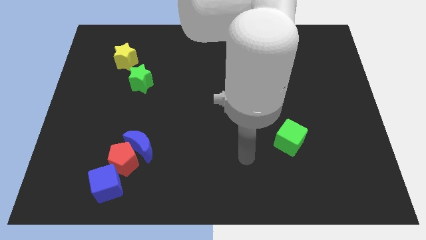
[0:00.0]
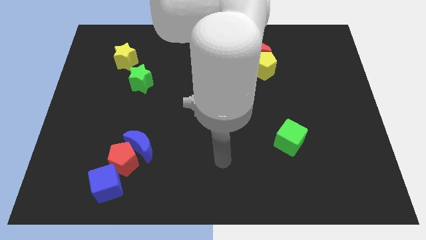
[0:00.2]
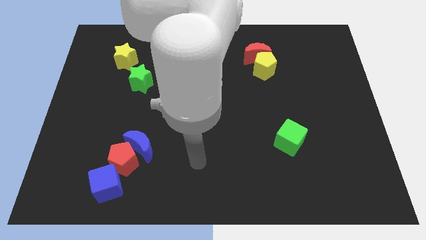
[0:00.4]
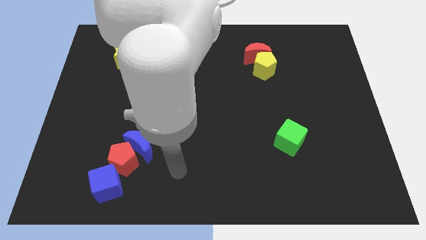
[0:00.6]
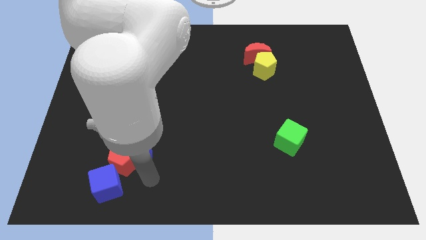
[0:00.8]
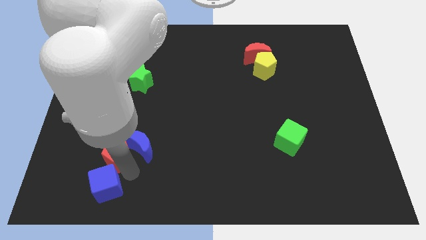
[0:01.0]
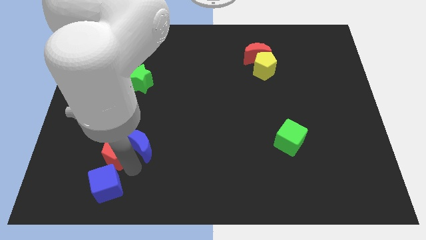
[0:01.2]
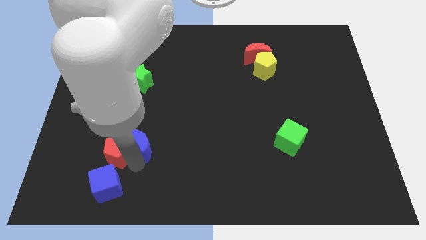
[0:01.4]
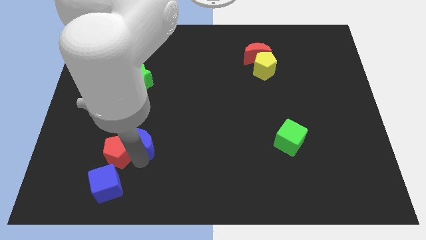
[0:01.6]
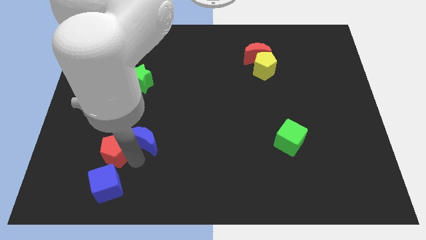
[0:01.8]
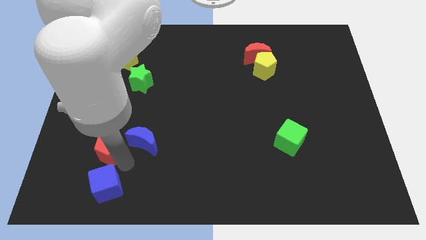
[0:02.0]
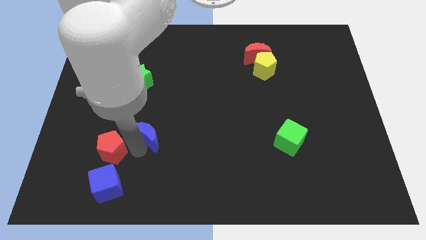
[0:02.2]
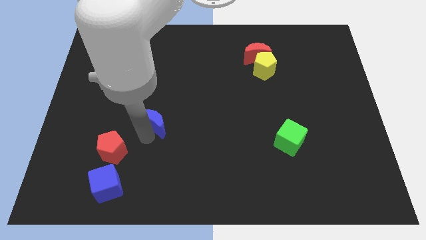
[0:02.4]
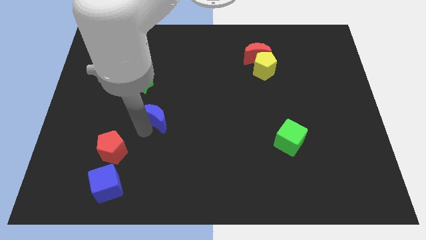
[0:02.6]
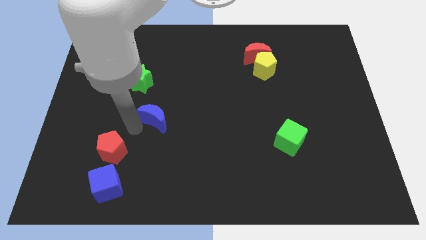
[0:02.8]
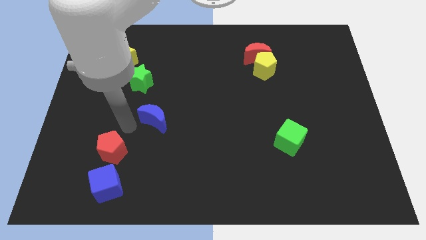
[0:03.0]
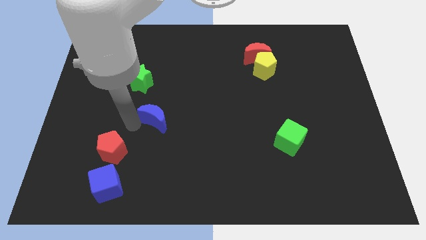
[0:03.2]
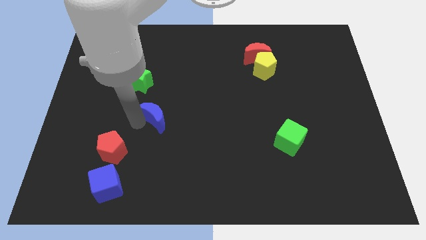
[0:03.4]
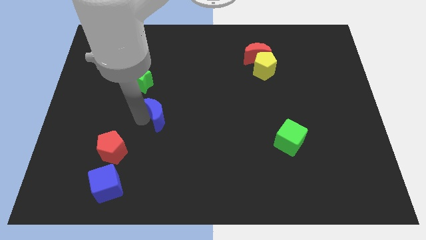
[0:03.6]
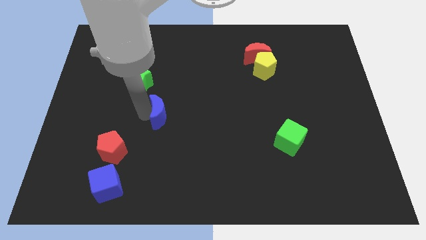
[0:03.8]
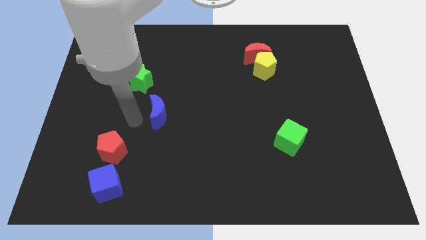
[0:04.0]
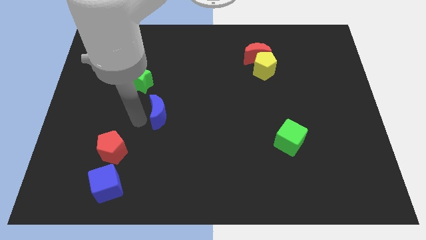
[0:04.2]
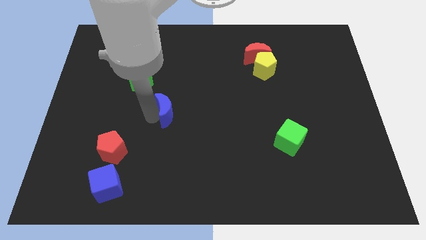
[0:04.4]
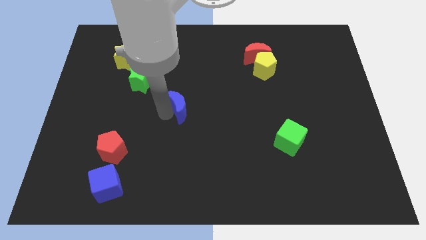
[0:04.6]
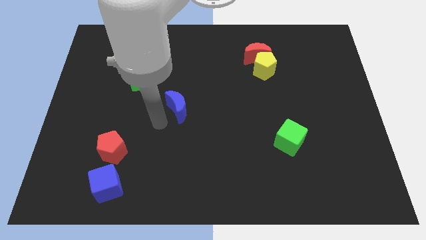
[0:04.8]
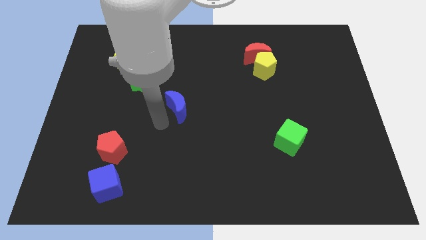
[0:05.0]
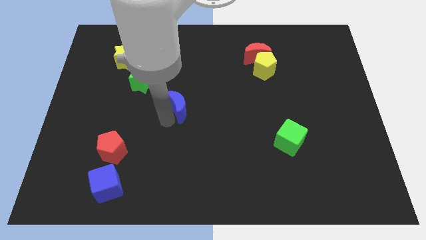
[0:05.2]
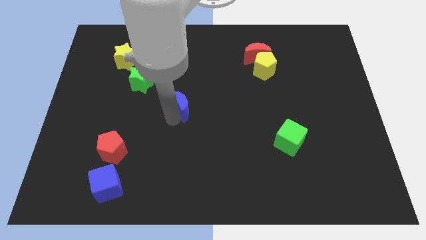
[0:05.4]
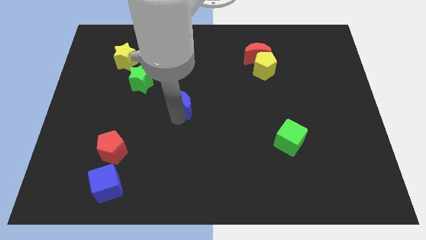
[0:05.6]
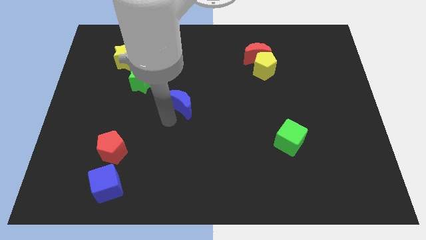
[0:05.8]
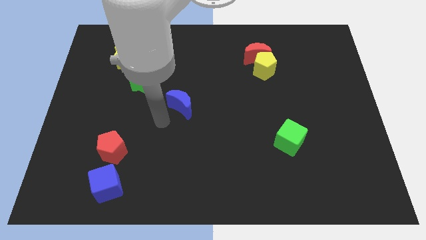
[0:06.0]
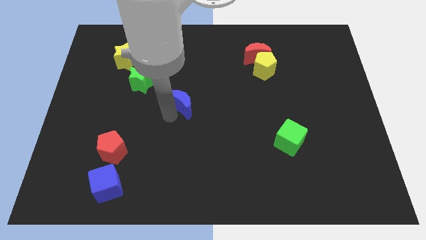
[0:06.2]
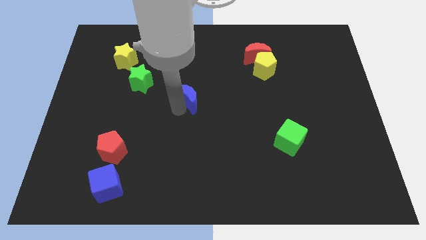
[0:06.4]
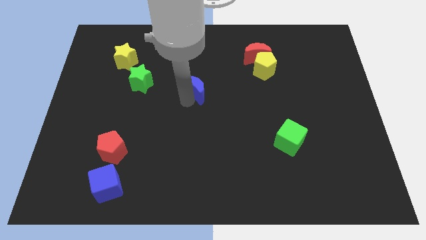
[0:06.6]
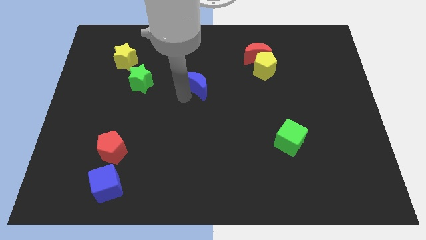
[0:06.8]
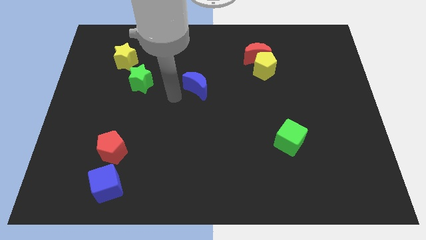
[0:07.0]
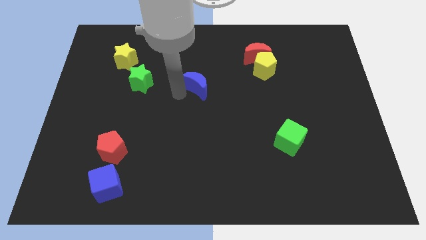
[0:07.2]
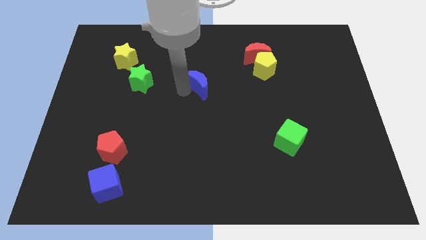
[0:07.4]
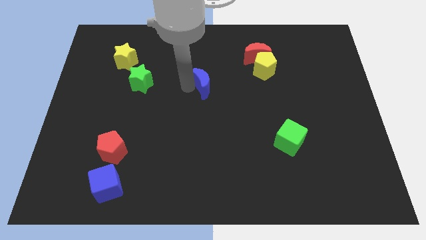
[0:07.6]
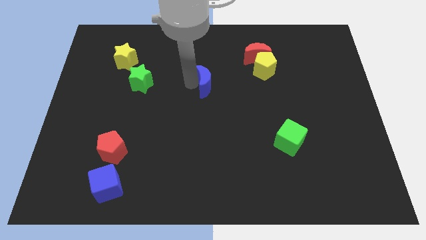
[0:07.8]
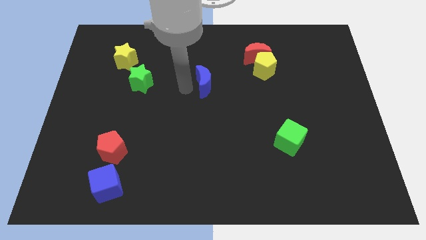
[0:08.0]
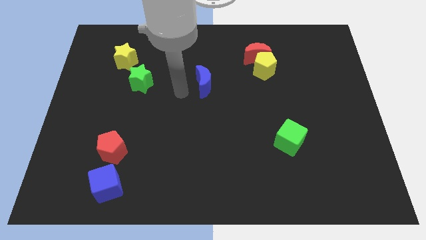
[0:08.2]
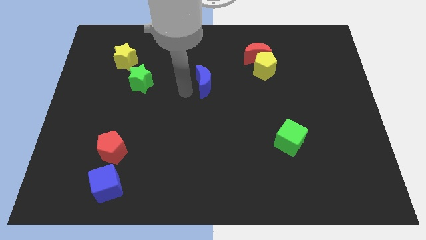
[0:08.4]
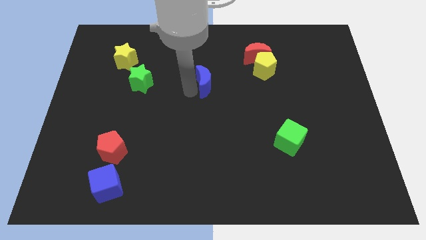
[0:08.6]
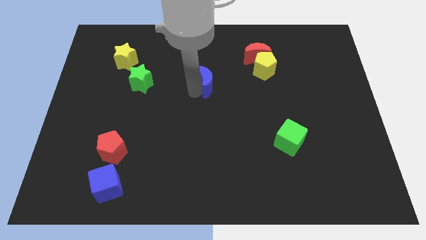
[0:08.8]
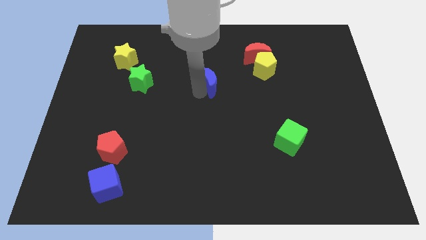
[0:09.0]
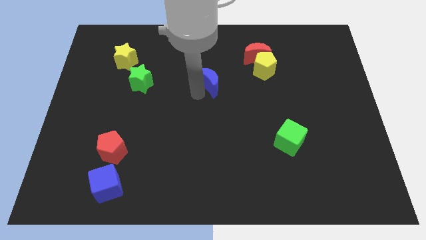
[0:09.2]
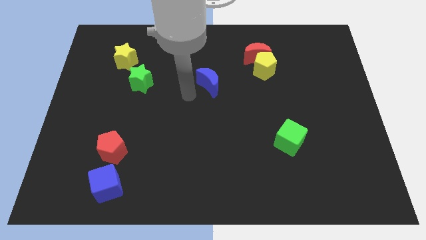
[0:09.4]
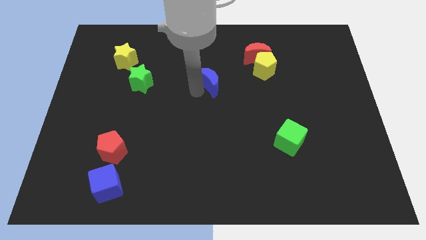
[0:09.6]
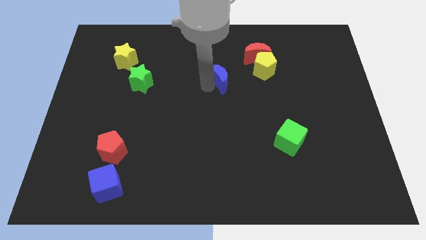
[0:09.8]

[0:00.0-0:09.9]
slide the blue moon to the bottom left of the red moon

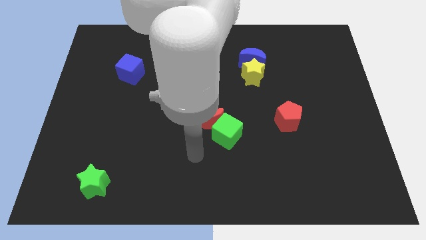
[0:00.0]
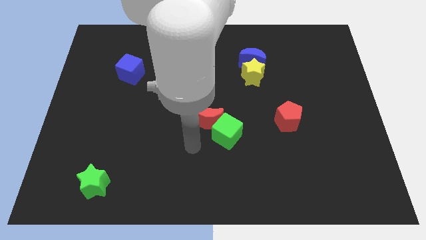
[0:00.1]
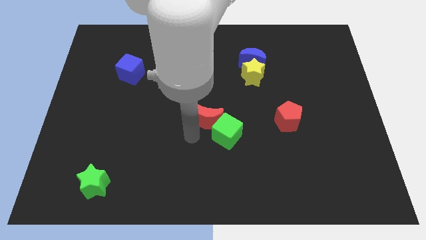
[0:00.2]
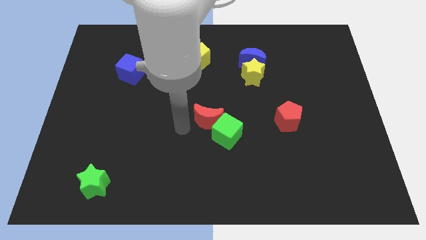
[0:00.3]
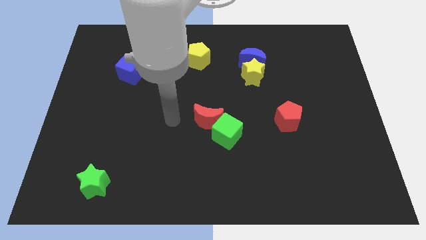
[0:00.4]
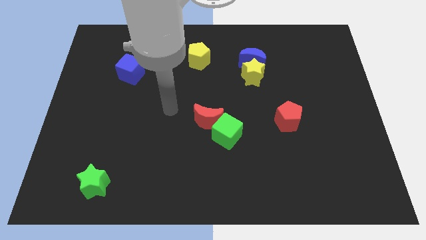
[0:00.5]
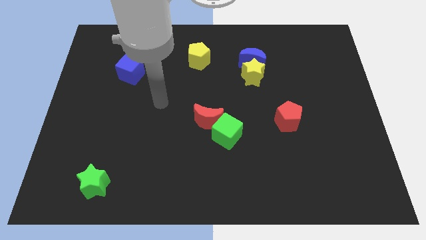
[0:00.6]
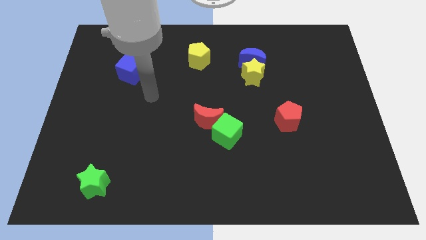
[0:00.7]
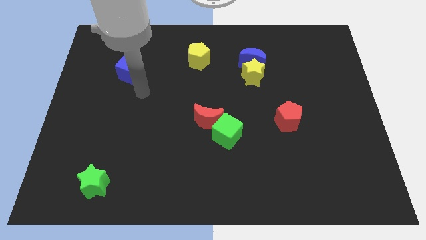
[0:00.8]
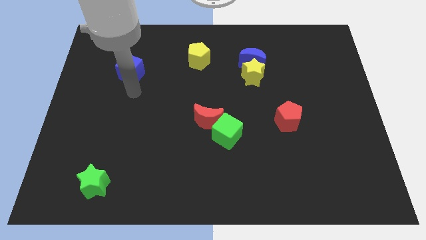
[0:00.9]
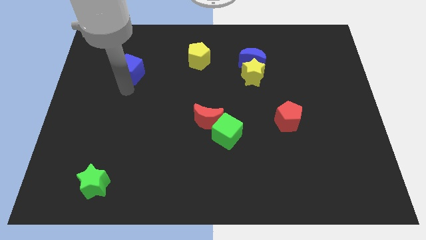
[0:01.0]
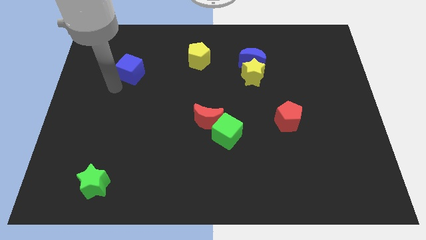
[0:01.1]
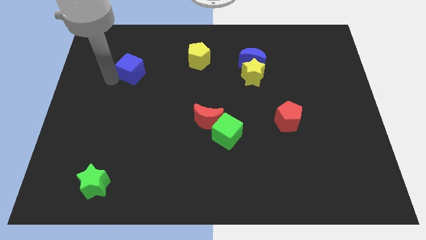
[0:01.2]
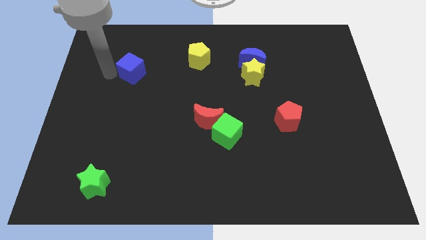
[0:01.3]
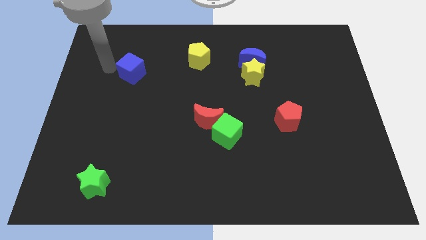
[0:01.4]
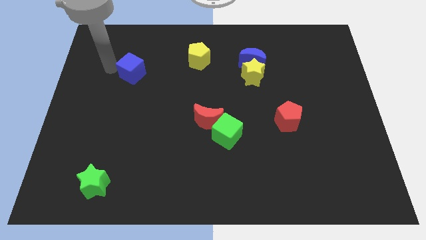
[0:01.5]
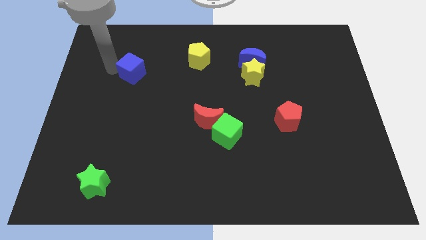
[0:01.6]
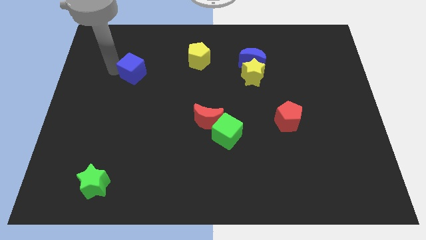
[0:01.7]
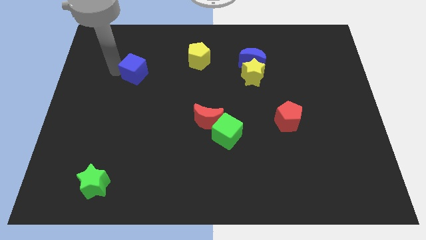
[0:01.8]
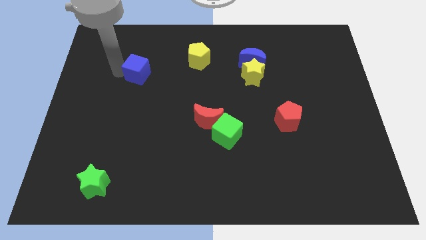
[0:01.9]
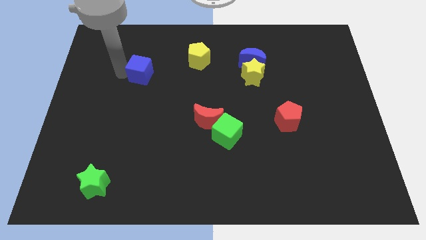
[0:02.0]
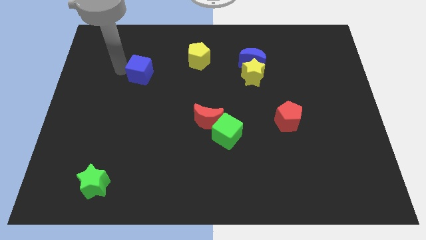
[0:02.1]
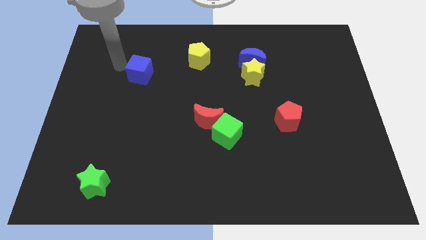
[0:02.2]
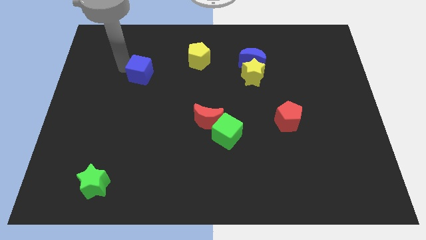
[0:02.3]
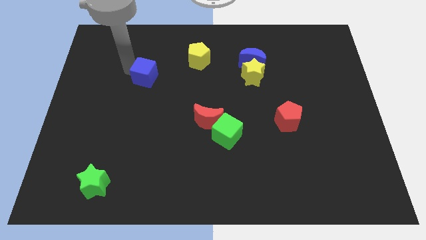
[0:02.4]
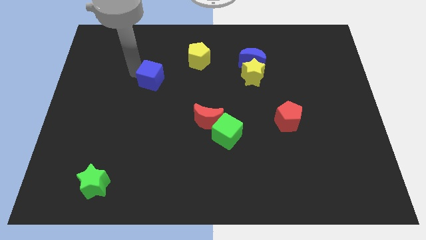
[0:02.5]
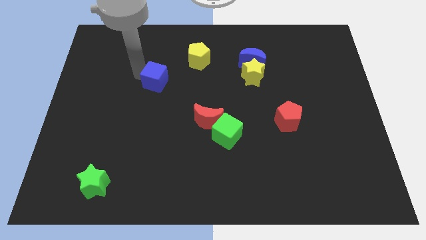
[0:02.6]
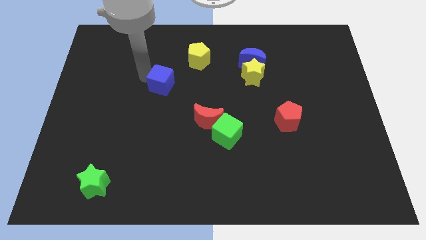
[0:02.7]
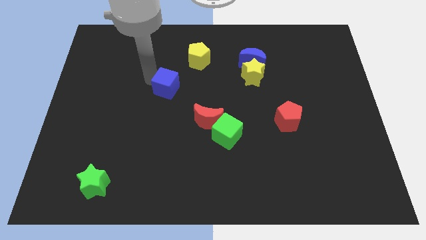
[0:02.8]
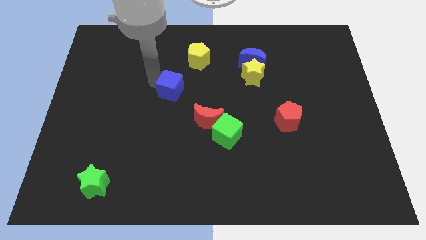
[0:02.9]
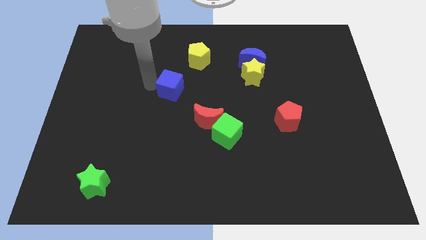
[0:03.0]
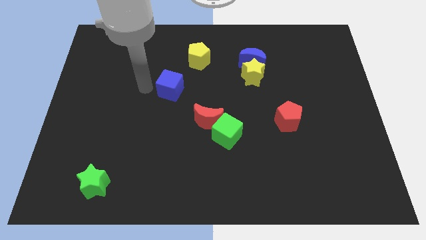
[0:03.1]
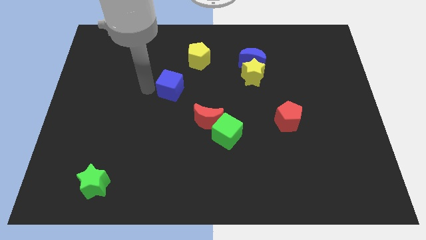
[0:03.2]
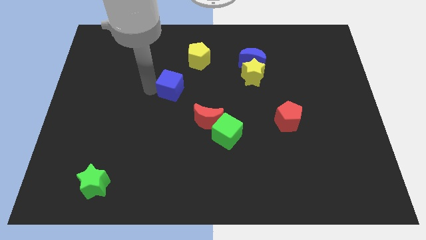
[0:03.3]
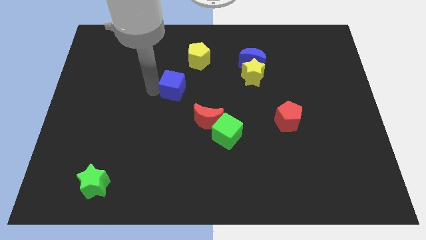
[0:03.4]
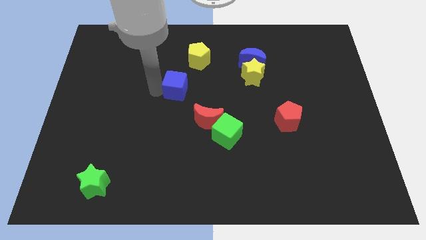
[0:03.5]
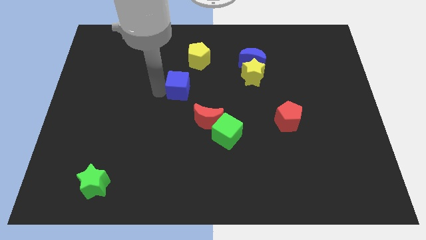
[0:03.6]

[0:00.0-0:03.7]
put the blue cube to the bottom side of the yellow pentagon
